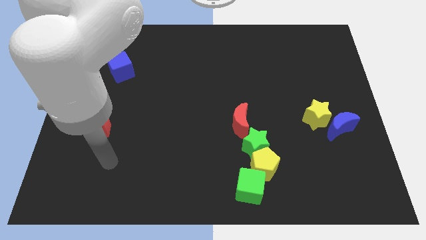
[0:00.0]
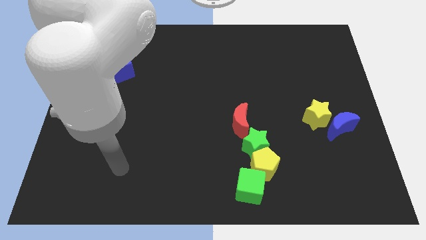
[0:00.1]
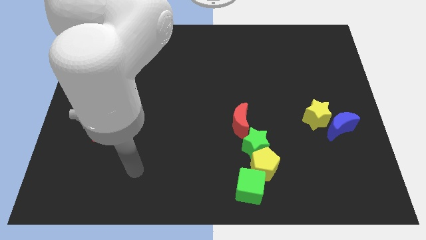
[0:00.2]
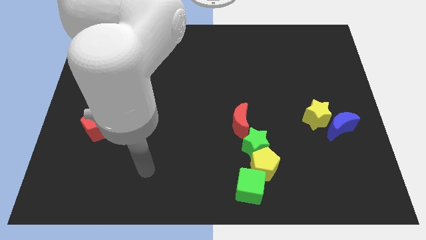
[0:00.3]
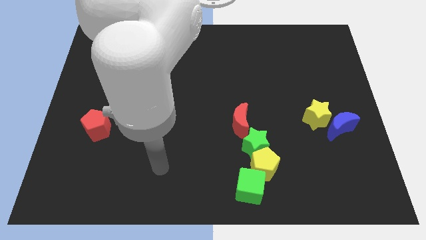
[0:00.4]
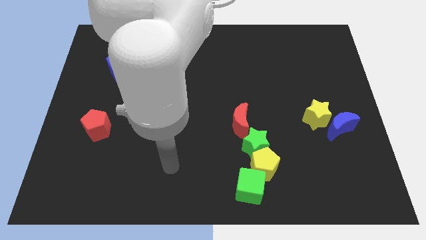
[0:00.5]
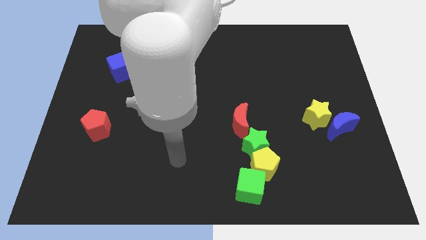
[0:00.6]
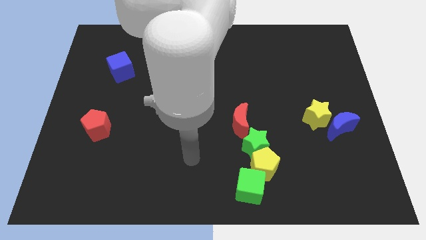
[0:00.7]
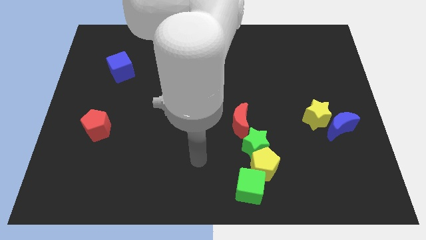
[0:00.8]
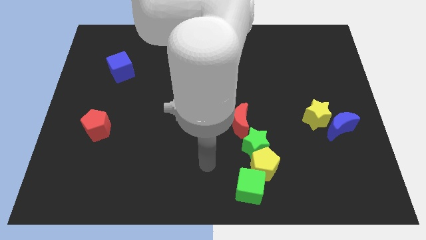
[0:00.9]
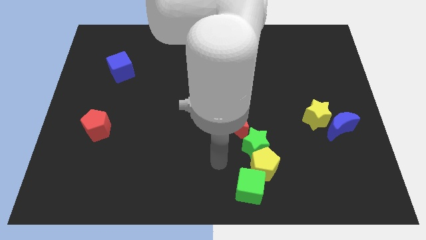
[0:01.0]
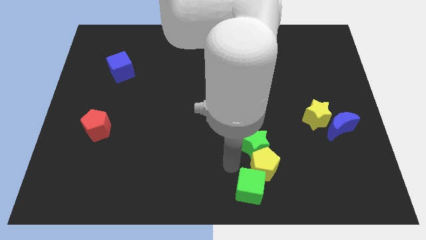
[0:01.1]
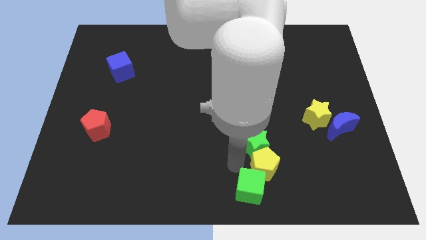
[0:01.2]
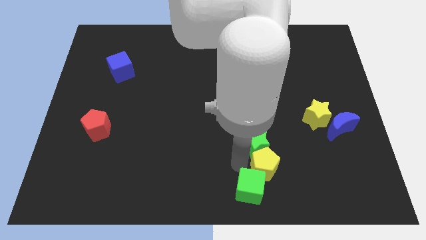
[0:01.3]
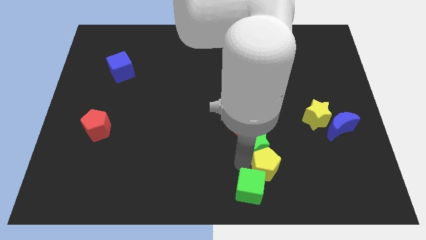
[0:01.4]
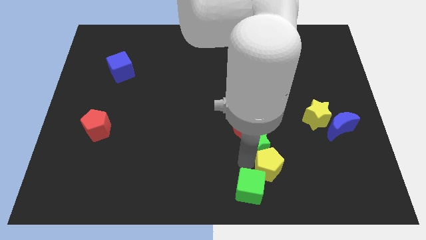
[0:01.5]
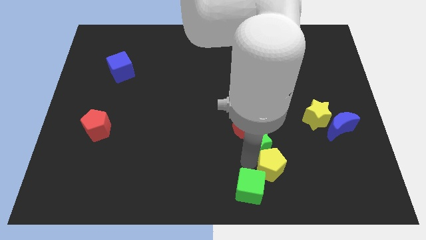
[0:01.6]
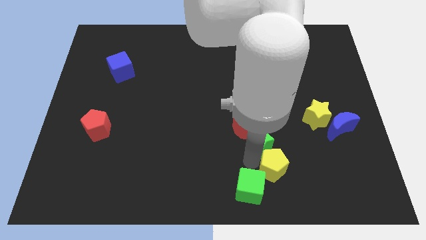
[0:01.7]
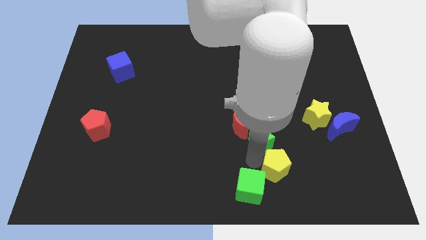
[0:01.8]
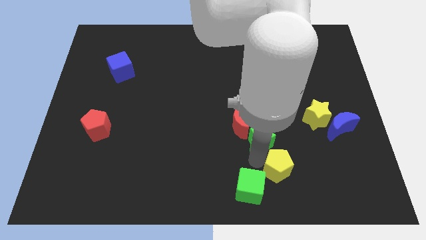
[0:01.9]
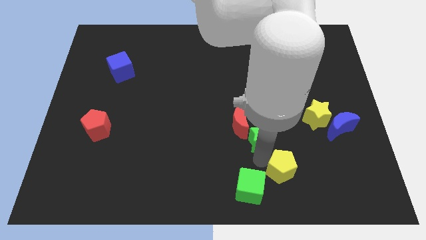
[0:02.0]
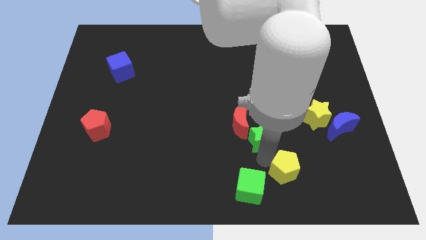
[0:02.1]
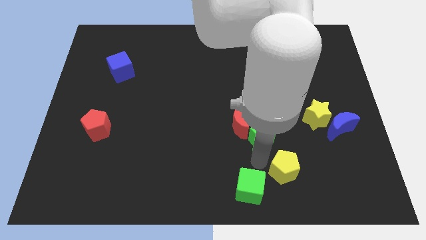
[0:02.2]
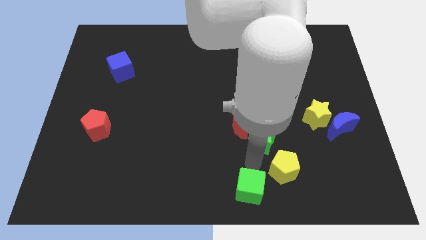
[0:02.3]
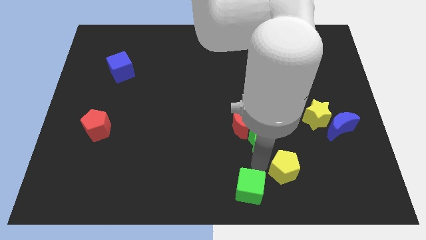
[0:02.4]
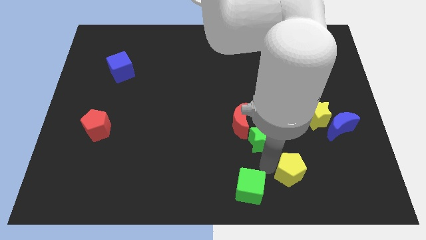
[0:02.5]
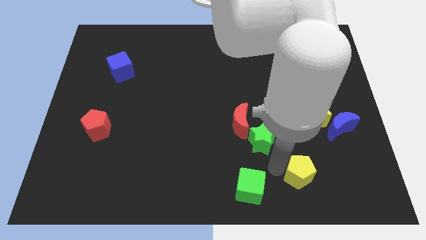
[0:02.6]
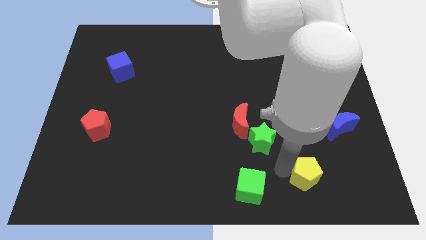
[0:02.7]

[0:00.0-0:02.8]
separate the yellow pentagon from the green star and green cube

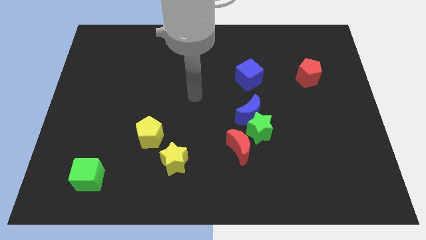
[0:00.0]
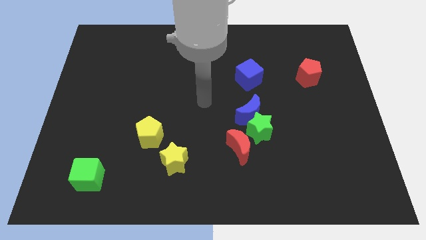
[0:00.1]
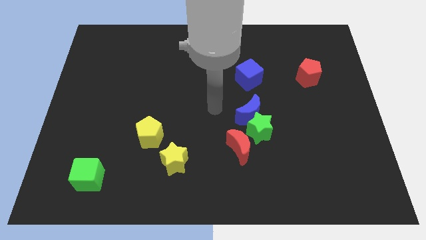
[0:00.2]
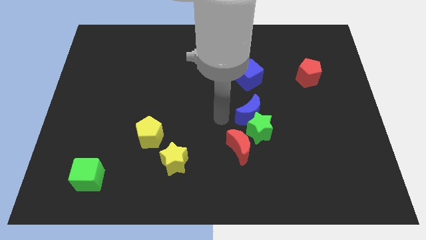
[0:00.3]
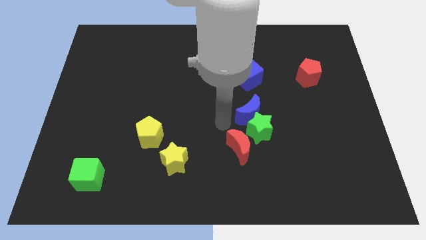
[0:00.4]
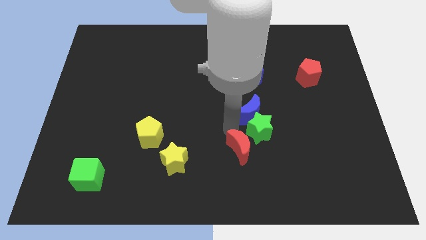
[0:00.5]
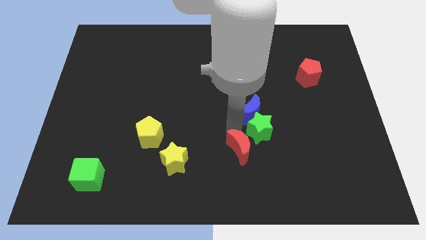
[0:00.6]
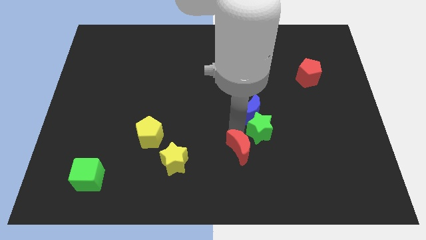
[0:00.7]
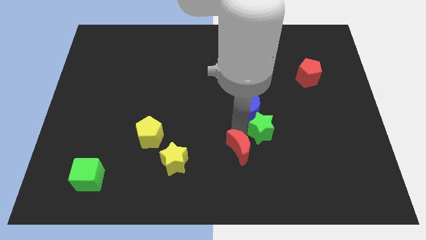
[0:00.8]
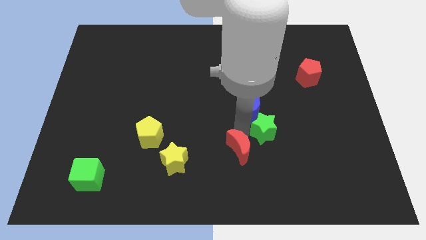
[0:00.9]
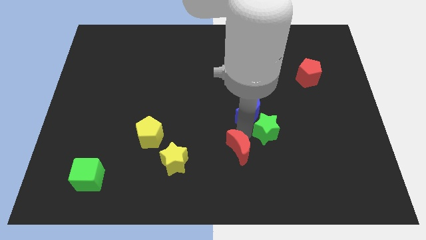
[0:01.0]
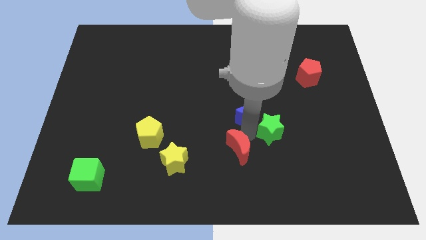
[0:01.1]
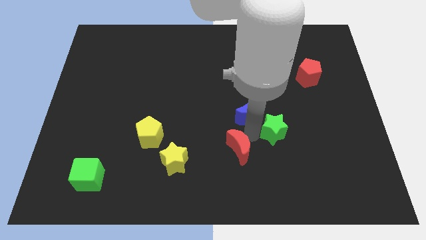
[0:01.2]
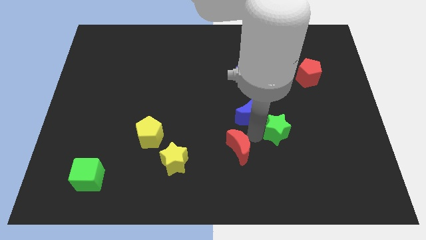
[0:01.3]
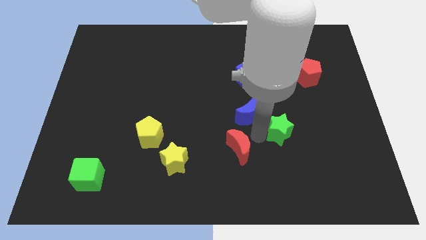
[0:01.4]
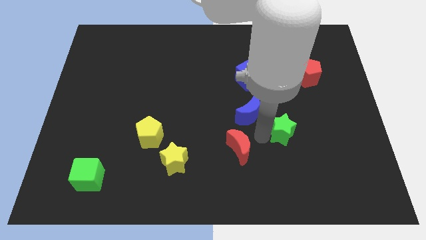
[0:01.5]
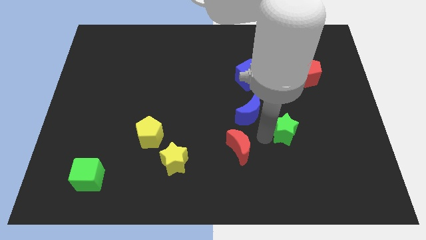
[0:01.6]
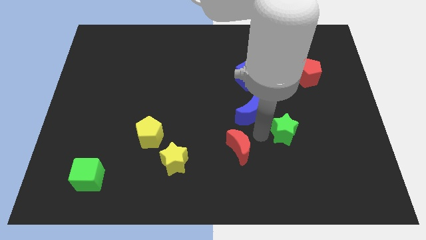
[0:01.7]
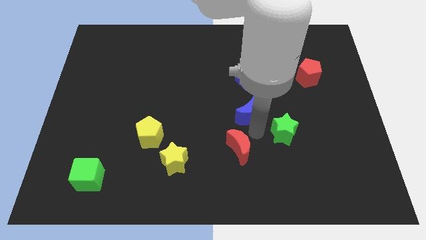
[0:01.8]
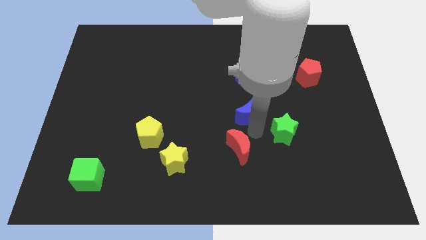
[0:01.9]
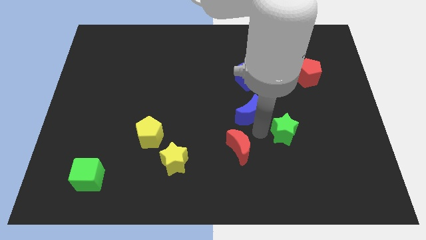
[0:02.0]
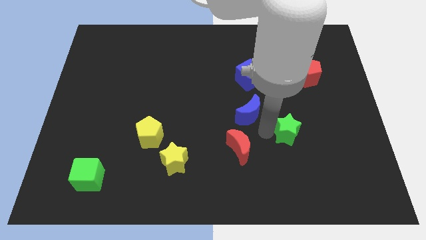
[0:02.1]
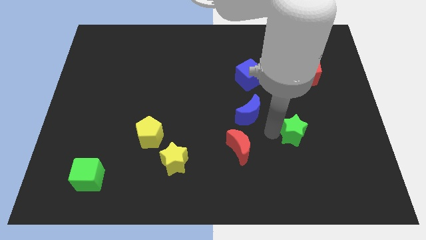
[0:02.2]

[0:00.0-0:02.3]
pull the green star apart from the blue moon and red moon

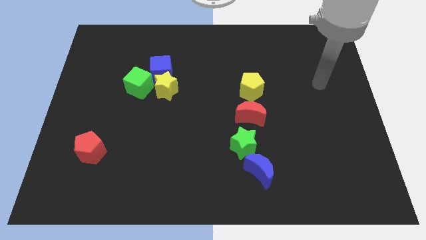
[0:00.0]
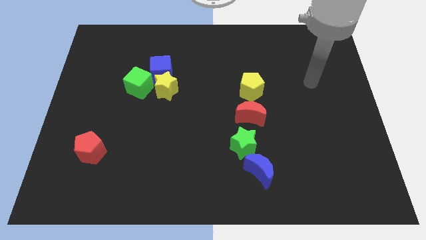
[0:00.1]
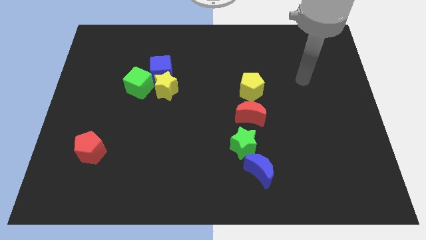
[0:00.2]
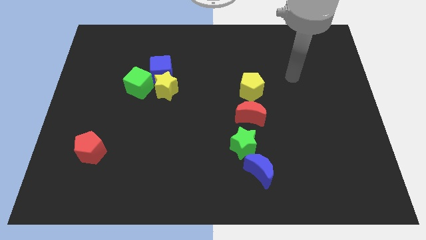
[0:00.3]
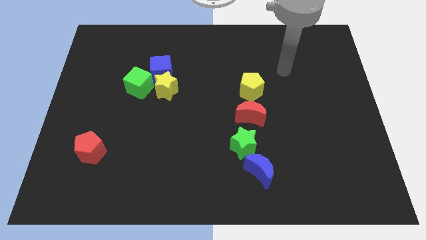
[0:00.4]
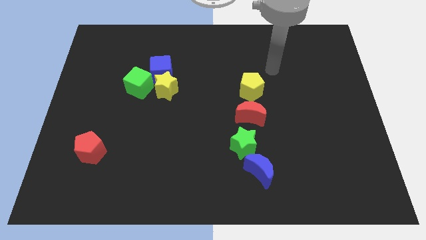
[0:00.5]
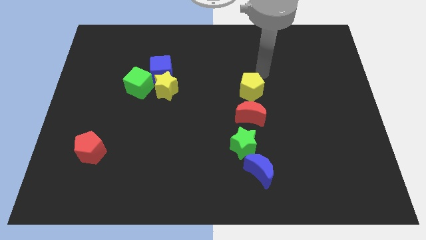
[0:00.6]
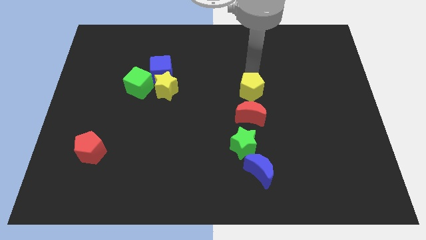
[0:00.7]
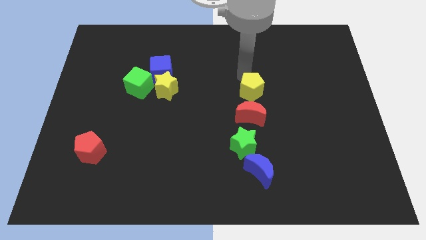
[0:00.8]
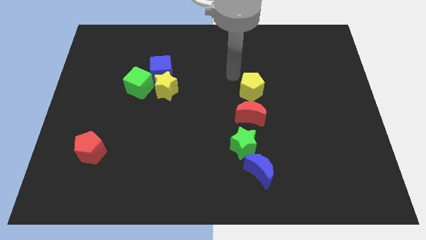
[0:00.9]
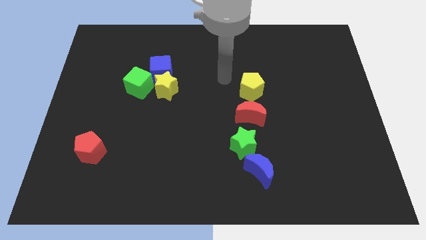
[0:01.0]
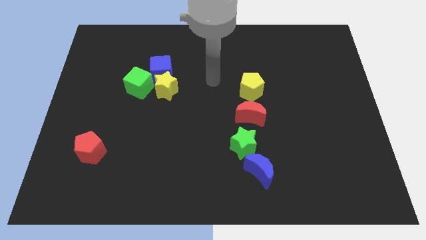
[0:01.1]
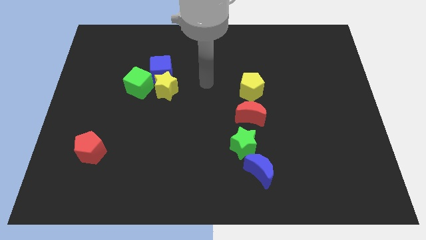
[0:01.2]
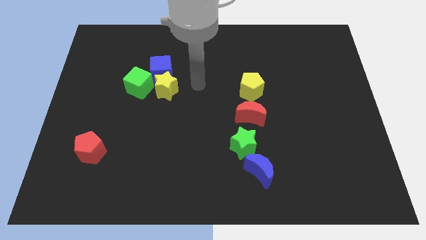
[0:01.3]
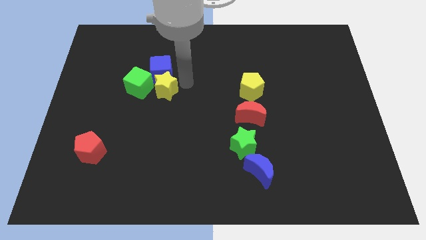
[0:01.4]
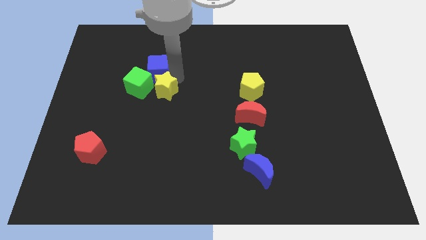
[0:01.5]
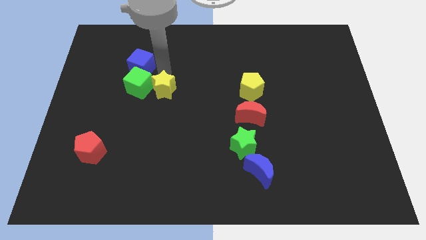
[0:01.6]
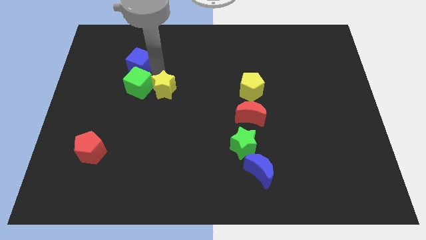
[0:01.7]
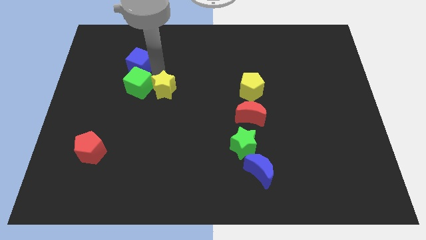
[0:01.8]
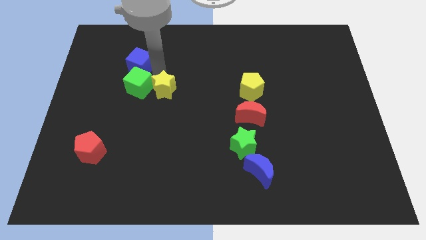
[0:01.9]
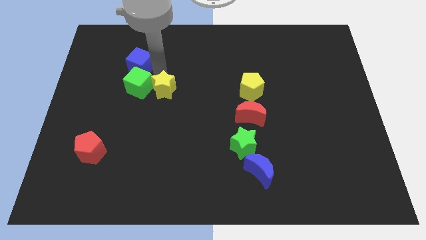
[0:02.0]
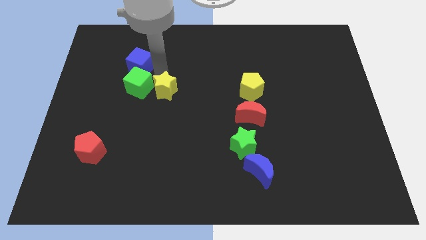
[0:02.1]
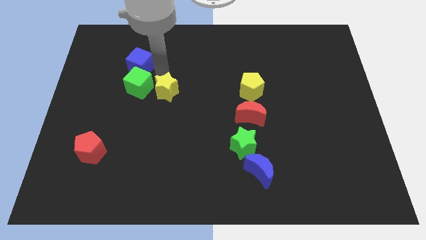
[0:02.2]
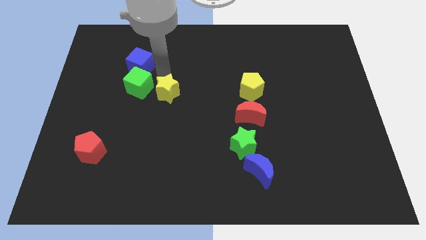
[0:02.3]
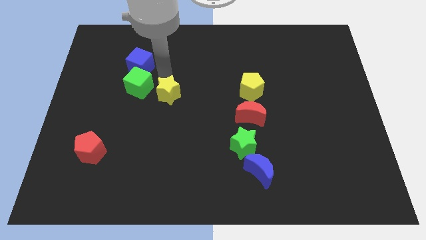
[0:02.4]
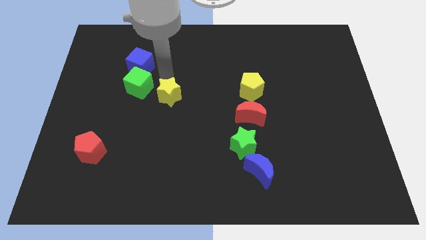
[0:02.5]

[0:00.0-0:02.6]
separate the yellow star from the blue cube and green cube

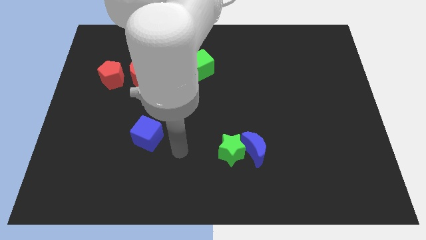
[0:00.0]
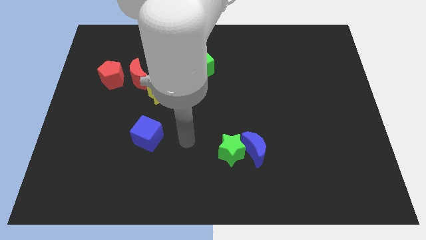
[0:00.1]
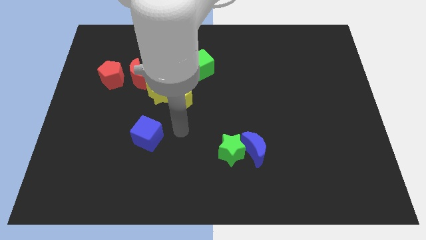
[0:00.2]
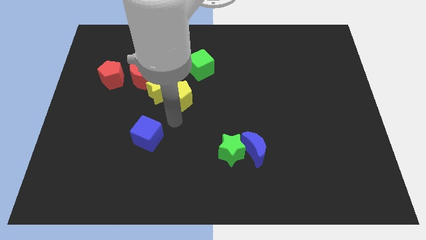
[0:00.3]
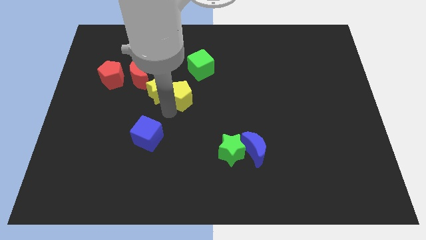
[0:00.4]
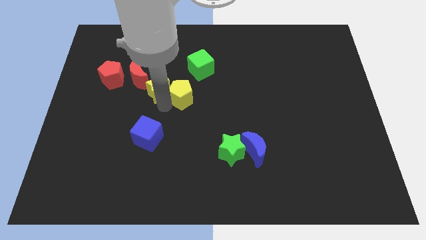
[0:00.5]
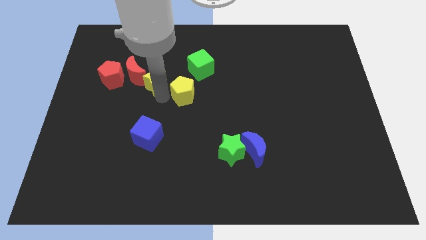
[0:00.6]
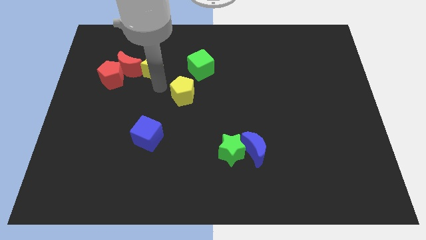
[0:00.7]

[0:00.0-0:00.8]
move the yellow pentagon away from the yellow star

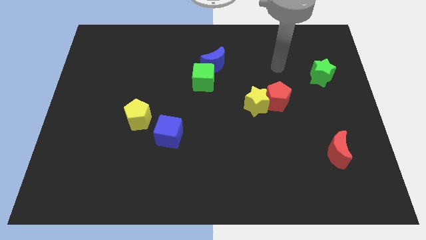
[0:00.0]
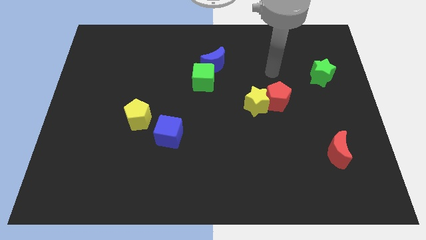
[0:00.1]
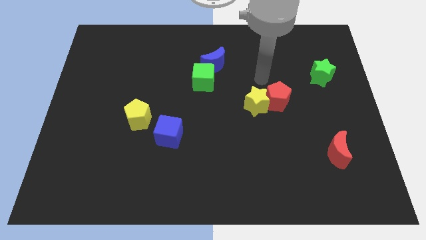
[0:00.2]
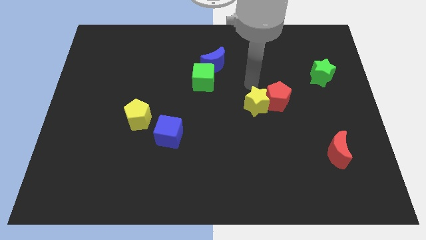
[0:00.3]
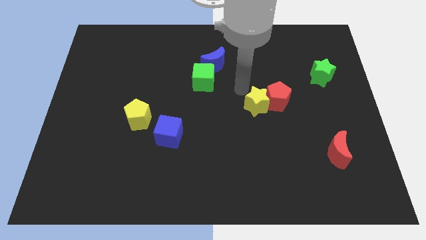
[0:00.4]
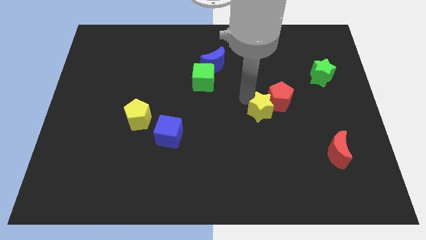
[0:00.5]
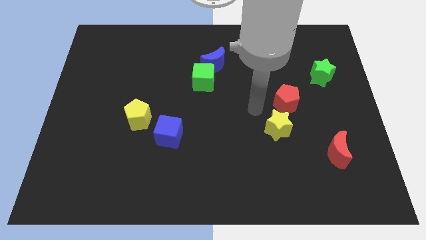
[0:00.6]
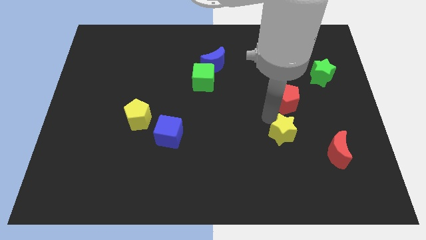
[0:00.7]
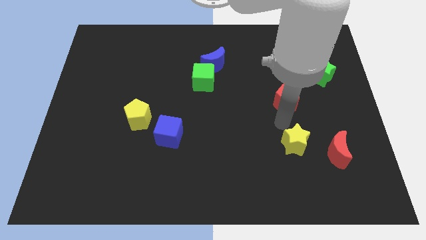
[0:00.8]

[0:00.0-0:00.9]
separate the red pentagon from the yellow star
